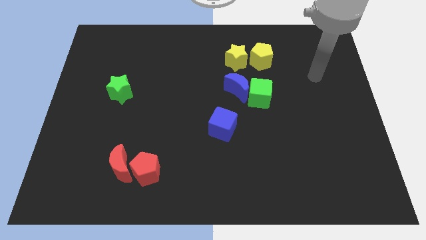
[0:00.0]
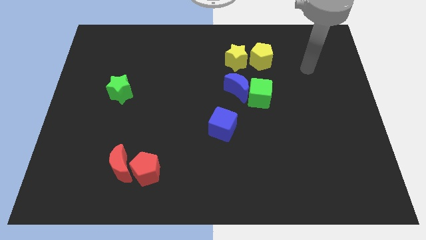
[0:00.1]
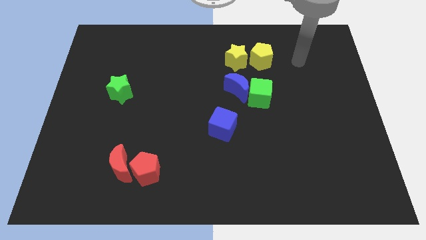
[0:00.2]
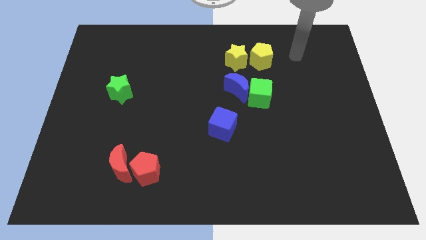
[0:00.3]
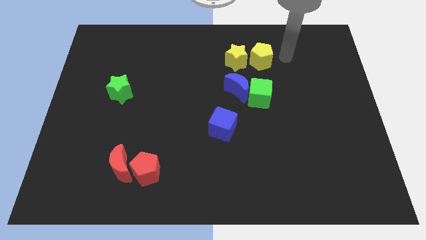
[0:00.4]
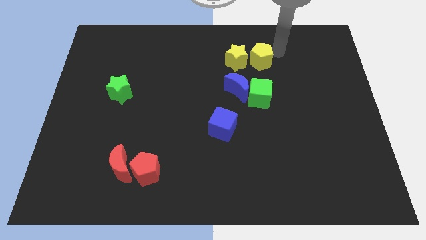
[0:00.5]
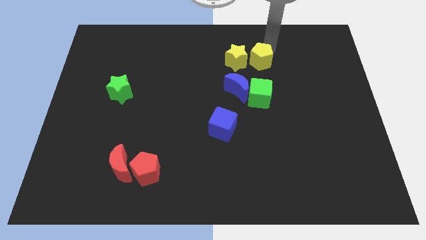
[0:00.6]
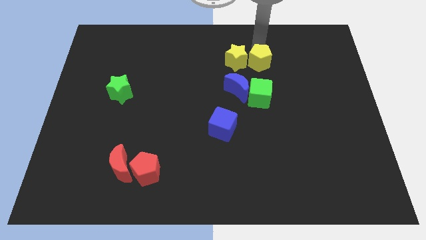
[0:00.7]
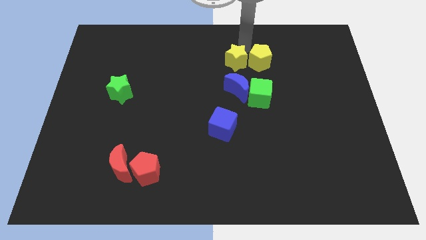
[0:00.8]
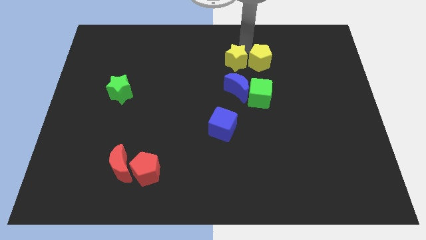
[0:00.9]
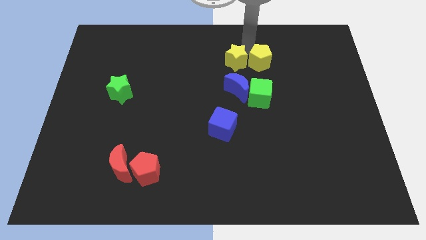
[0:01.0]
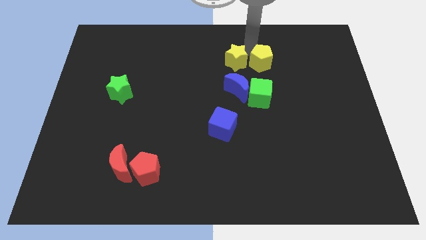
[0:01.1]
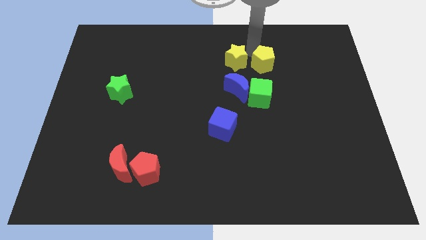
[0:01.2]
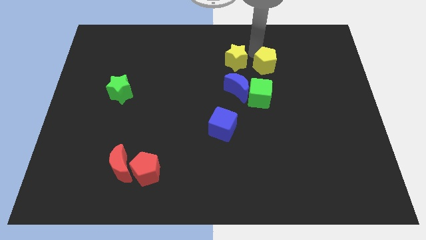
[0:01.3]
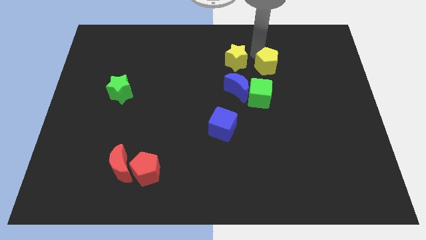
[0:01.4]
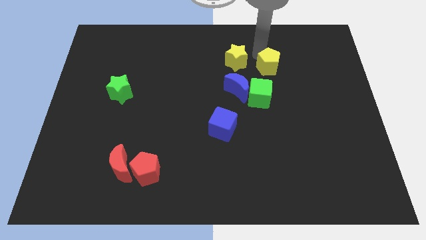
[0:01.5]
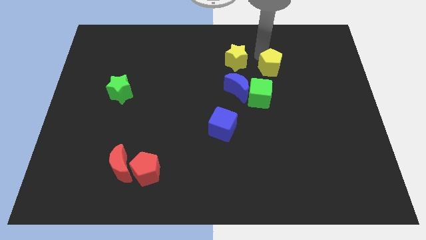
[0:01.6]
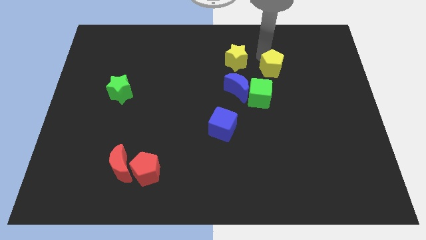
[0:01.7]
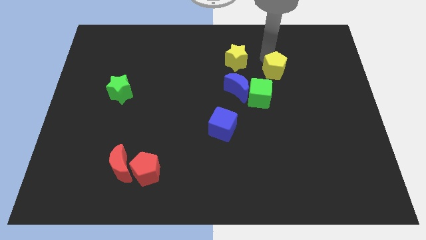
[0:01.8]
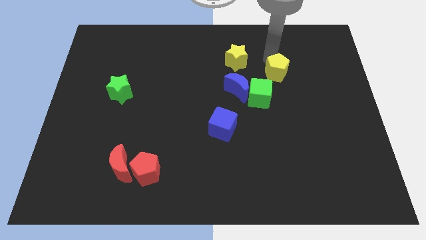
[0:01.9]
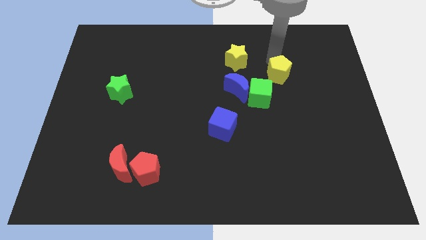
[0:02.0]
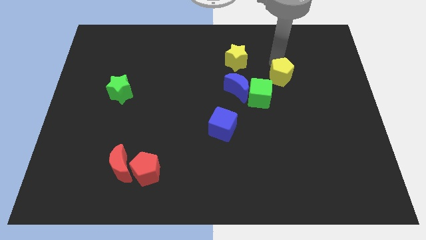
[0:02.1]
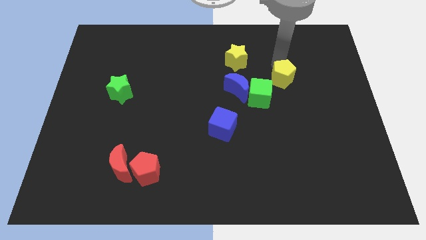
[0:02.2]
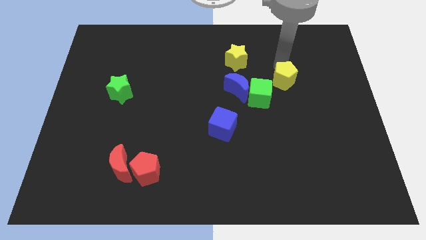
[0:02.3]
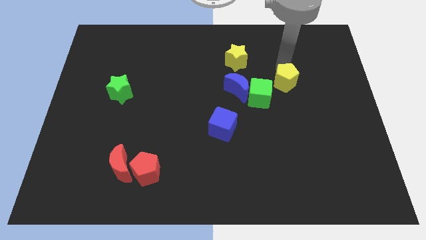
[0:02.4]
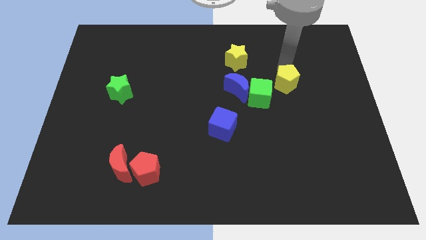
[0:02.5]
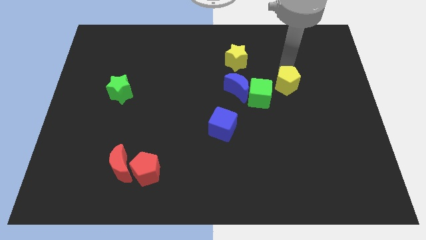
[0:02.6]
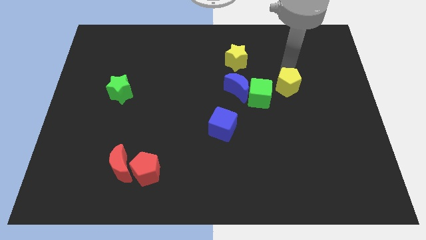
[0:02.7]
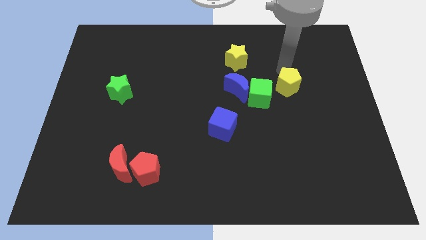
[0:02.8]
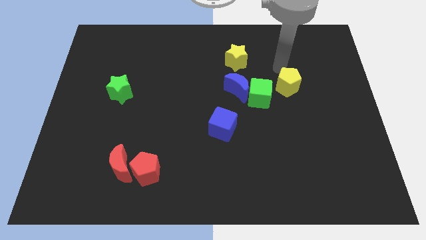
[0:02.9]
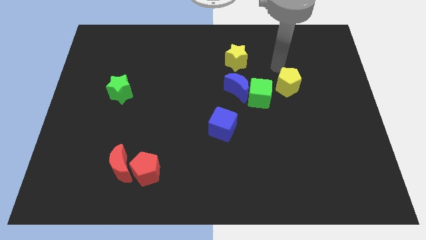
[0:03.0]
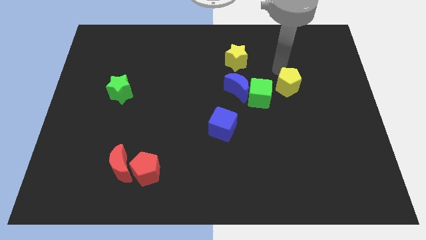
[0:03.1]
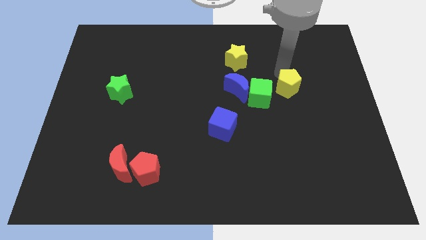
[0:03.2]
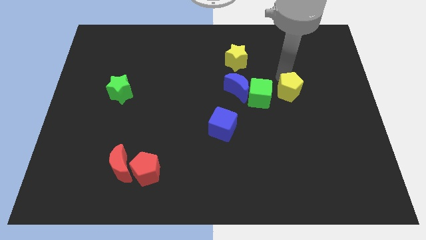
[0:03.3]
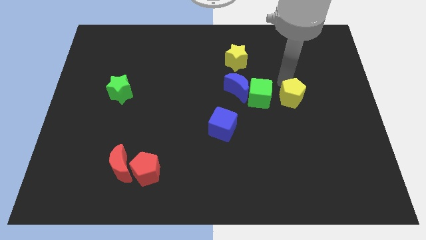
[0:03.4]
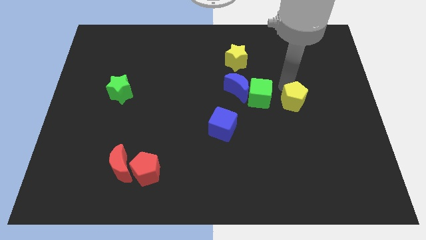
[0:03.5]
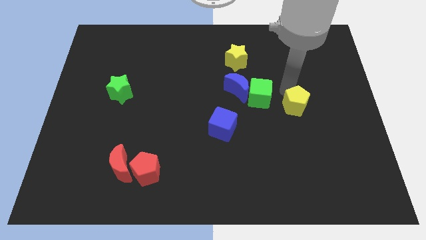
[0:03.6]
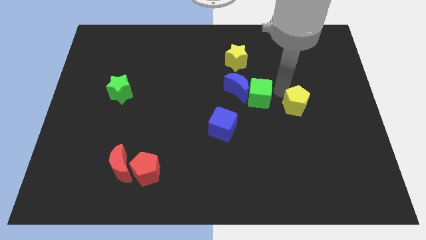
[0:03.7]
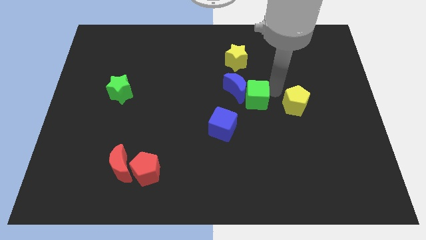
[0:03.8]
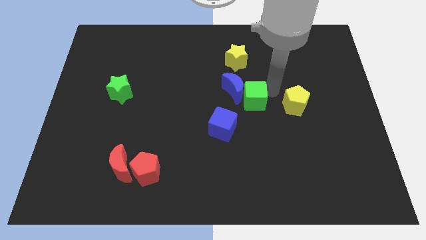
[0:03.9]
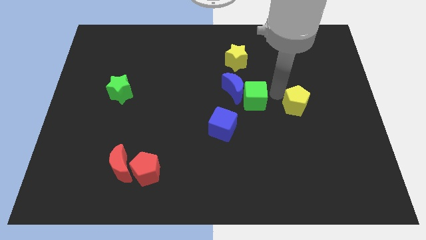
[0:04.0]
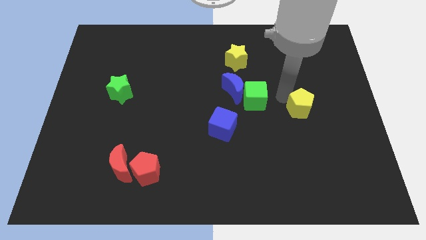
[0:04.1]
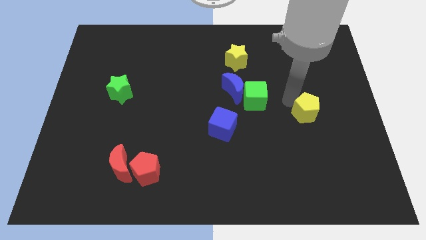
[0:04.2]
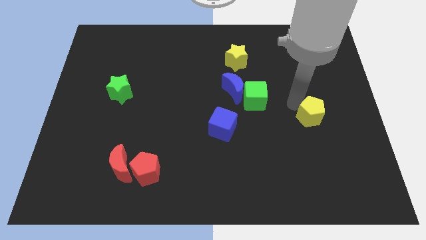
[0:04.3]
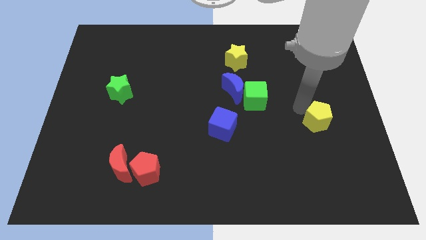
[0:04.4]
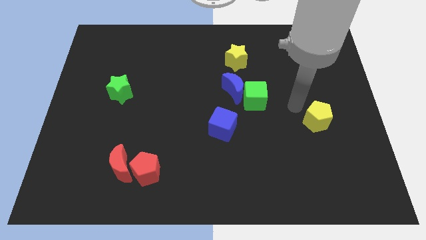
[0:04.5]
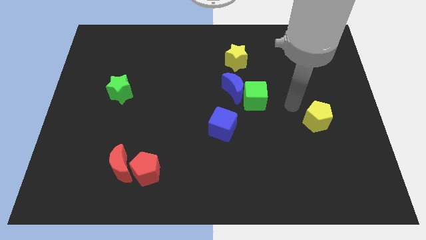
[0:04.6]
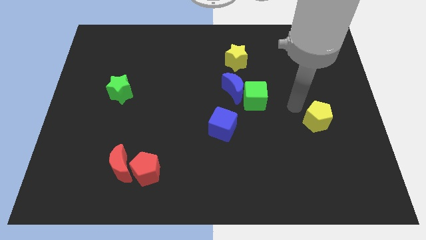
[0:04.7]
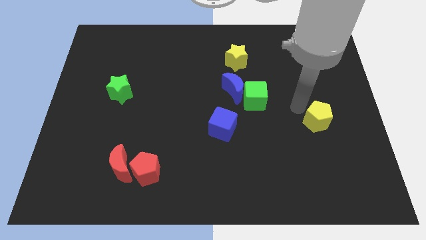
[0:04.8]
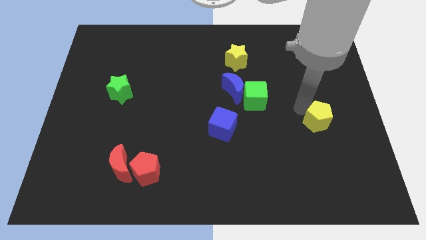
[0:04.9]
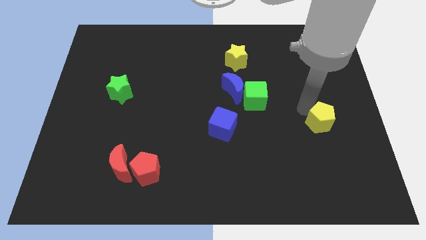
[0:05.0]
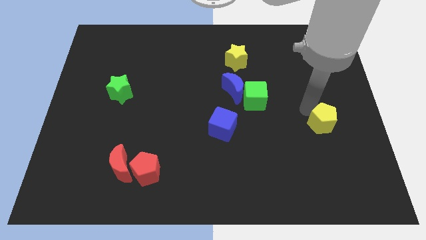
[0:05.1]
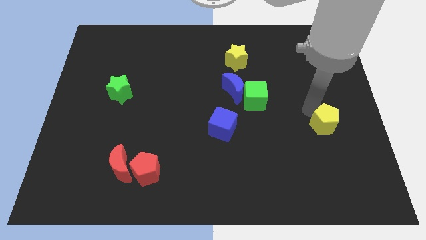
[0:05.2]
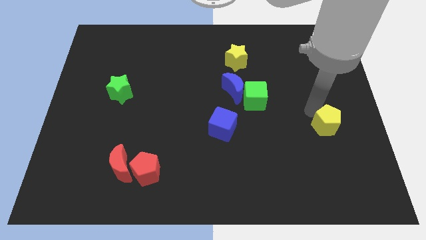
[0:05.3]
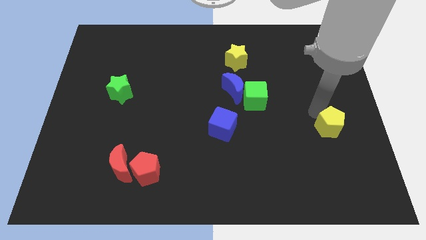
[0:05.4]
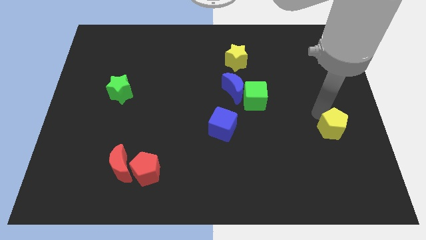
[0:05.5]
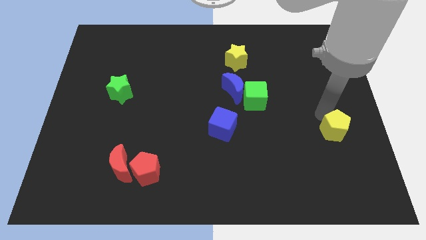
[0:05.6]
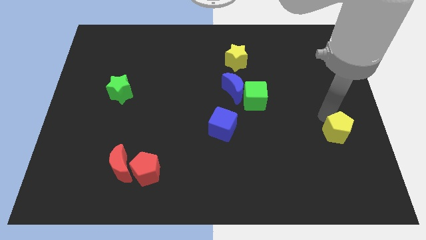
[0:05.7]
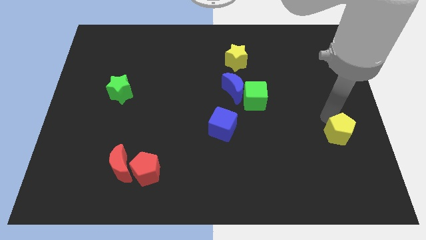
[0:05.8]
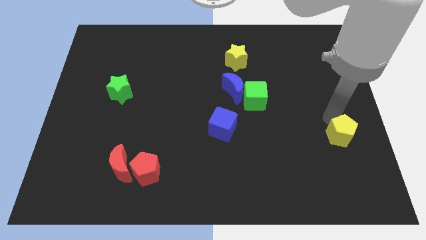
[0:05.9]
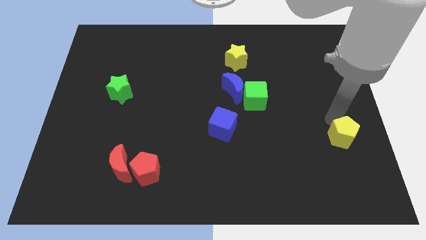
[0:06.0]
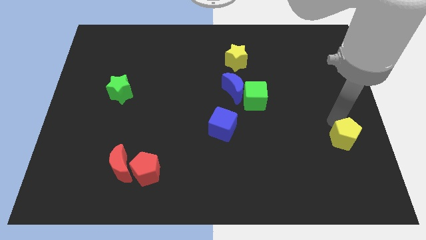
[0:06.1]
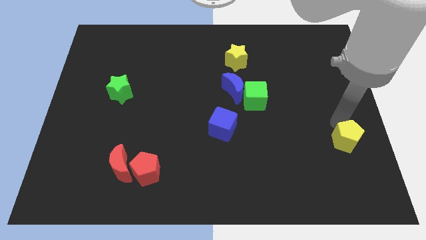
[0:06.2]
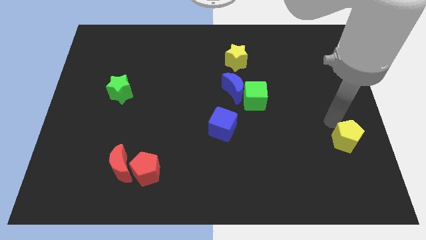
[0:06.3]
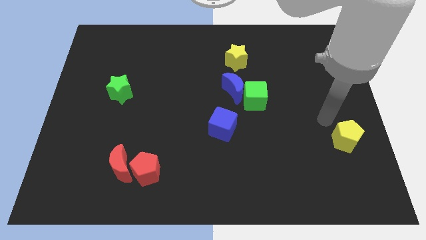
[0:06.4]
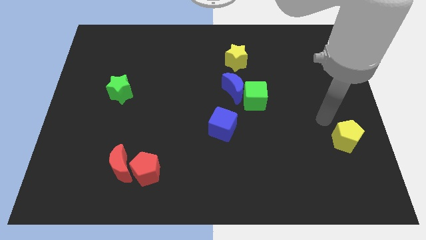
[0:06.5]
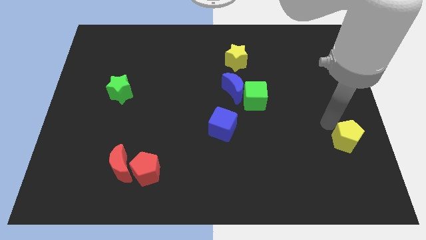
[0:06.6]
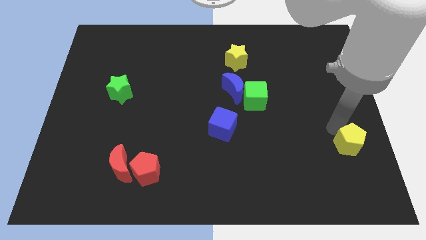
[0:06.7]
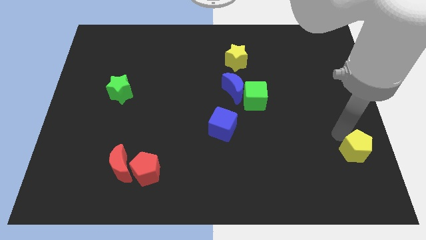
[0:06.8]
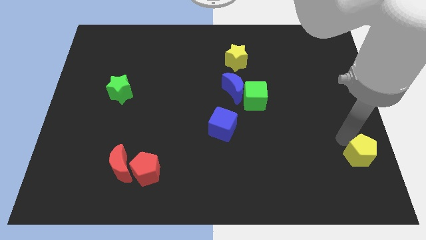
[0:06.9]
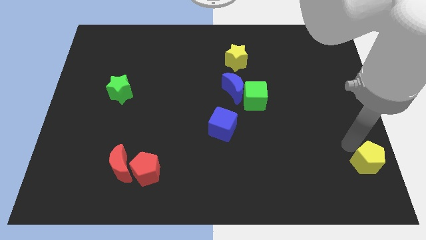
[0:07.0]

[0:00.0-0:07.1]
put the yellow pentagon to the bottom right of the board
